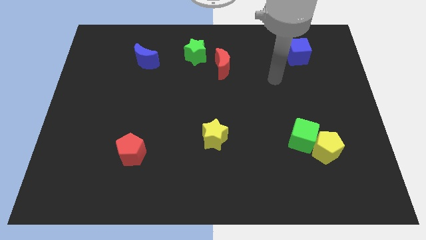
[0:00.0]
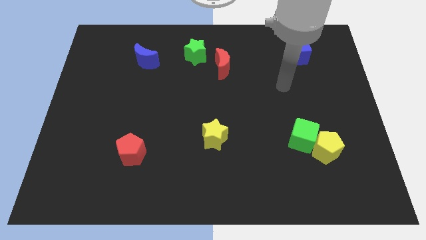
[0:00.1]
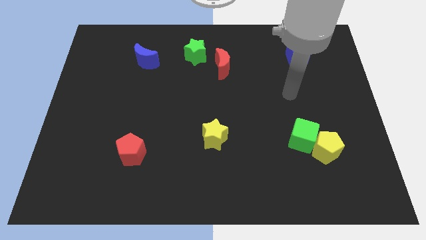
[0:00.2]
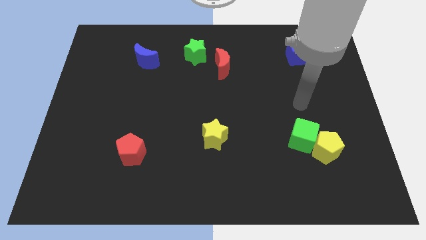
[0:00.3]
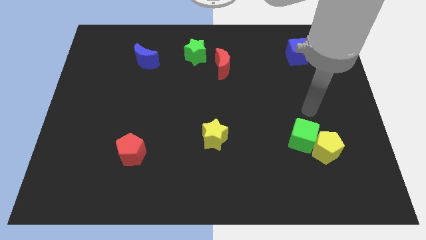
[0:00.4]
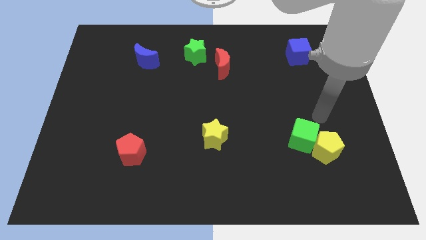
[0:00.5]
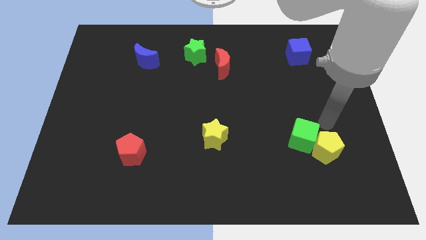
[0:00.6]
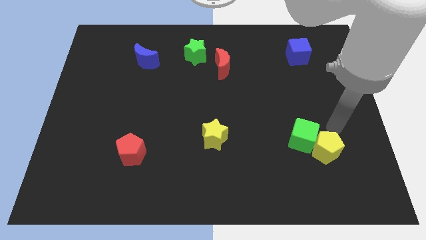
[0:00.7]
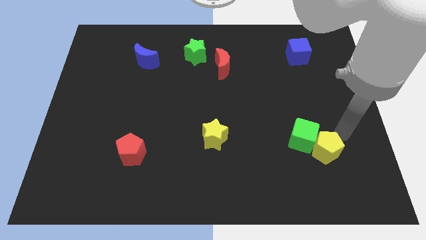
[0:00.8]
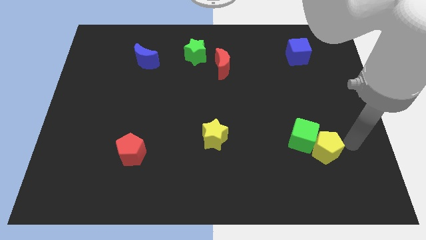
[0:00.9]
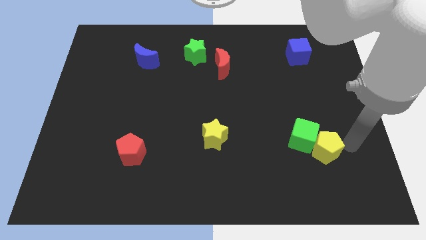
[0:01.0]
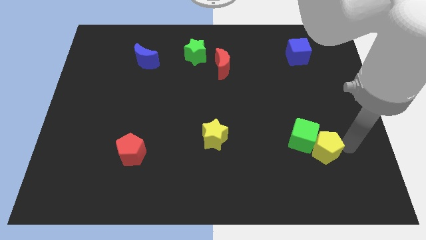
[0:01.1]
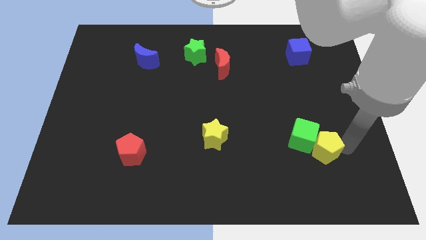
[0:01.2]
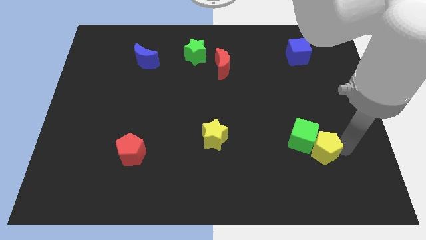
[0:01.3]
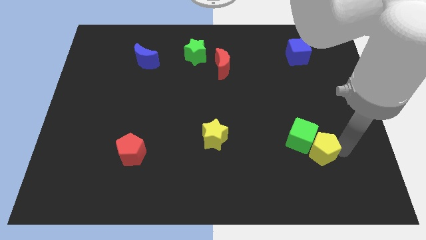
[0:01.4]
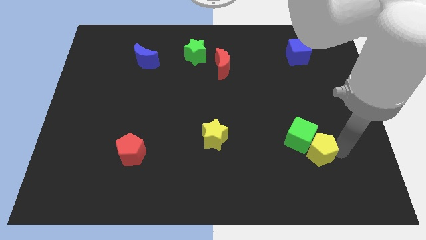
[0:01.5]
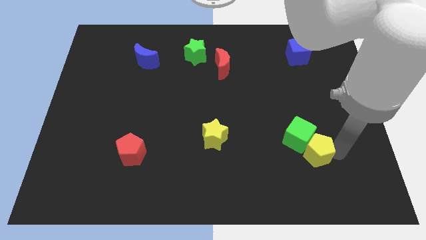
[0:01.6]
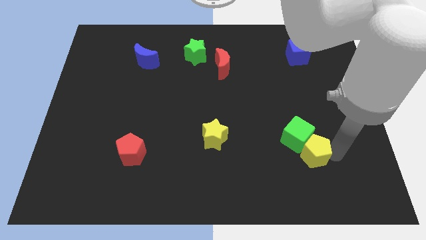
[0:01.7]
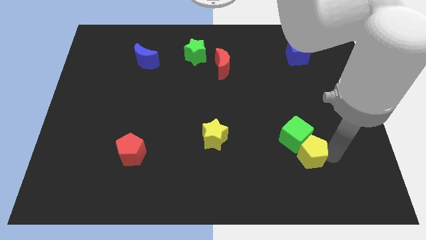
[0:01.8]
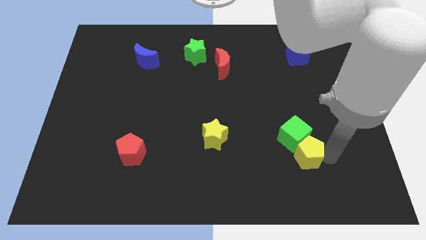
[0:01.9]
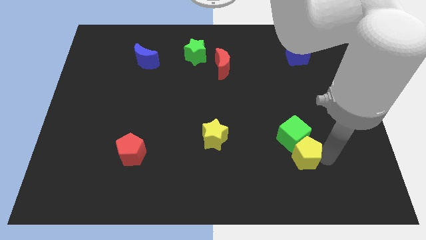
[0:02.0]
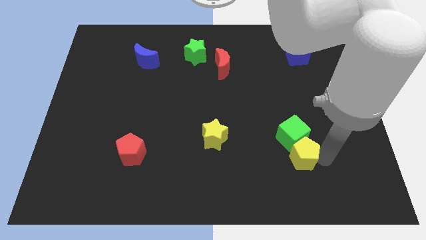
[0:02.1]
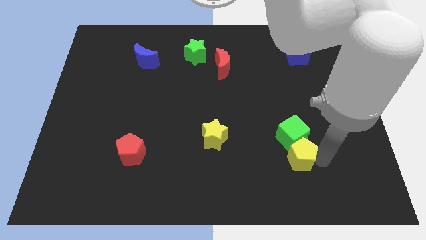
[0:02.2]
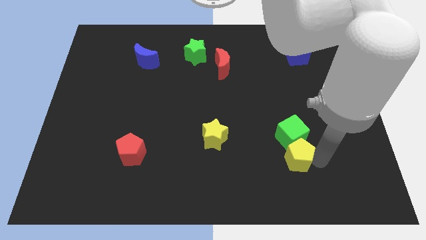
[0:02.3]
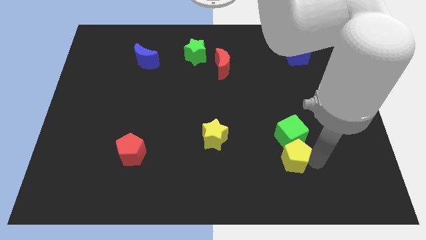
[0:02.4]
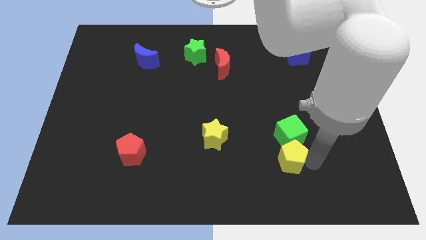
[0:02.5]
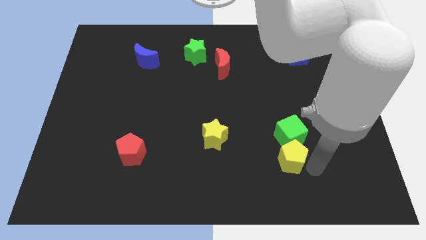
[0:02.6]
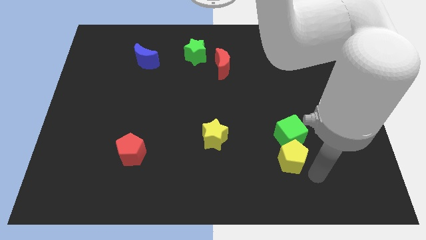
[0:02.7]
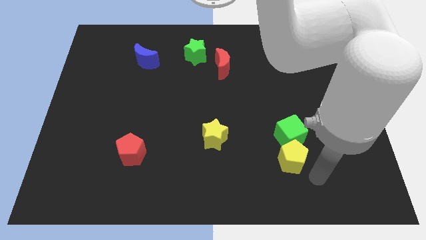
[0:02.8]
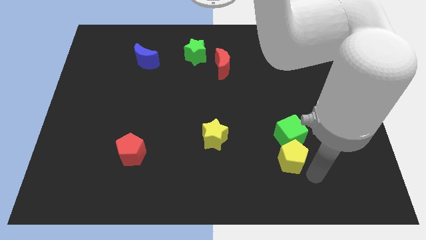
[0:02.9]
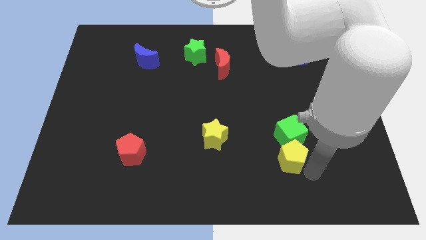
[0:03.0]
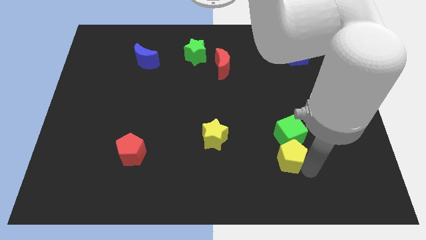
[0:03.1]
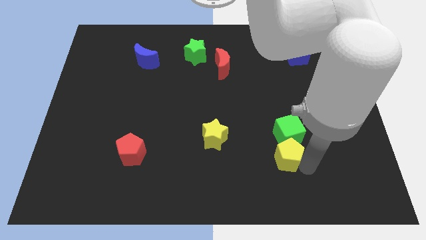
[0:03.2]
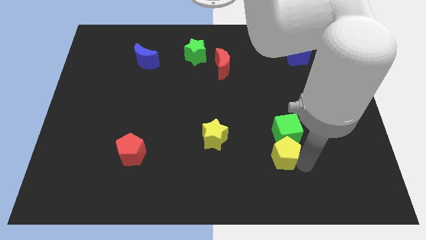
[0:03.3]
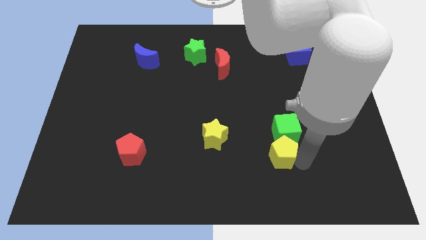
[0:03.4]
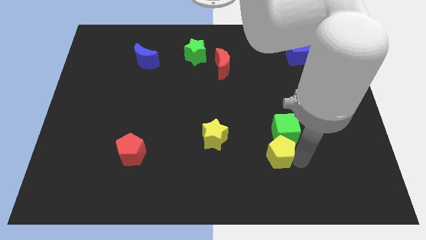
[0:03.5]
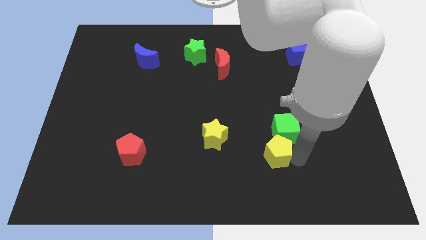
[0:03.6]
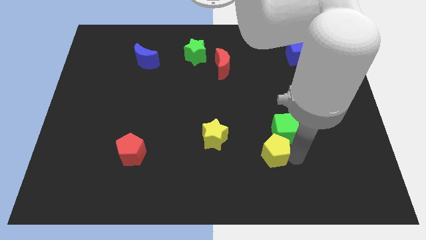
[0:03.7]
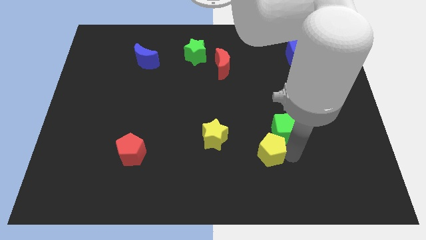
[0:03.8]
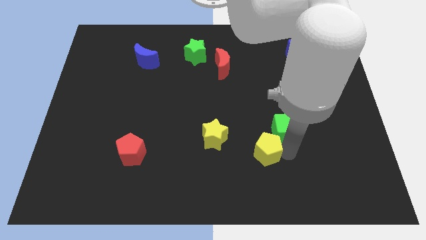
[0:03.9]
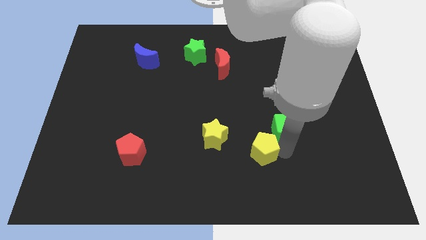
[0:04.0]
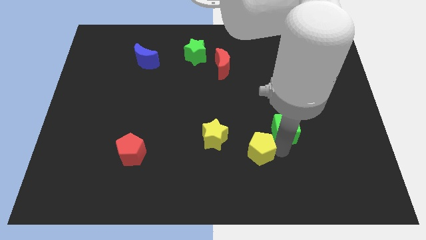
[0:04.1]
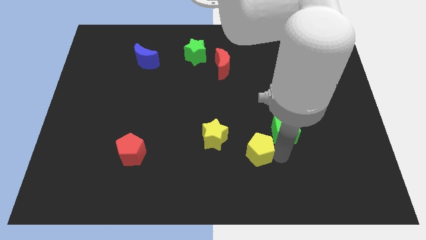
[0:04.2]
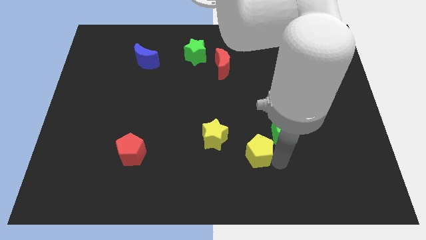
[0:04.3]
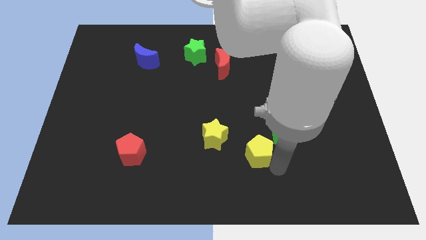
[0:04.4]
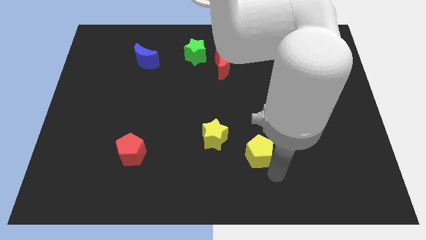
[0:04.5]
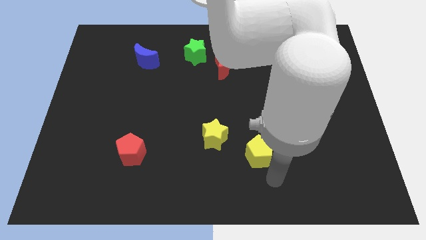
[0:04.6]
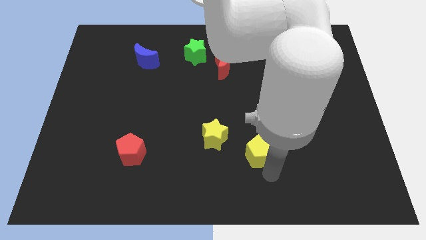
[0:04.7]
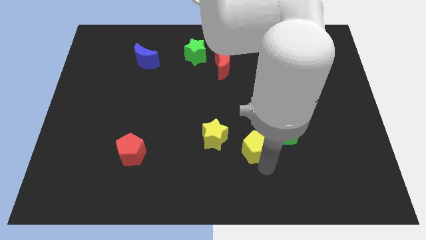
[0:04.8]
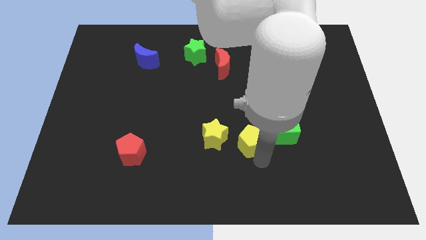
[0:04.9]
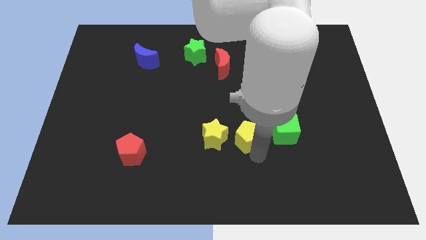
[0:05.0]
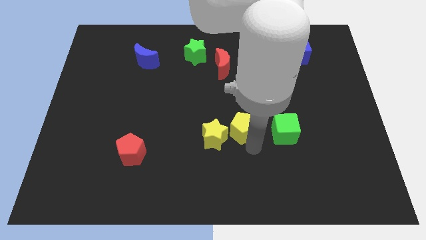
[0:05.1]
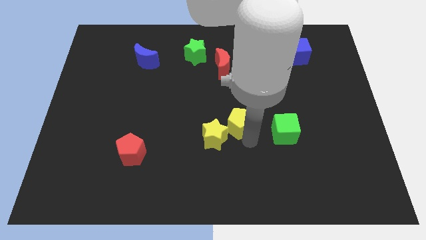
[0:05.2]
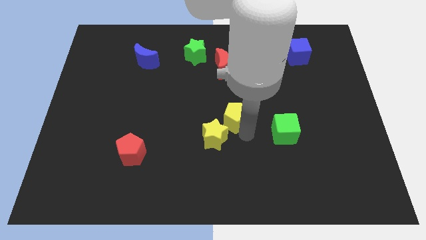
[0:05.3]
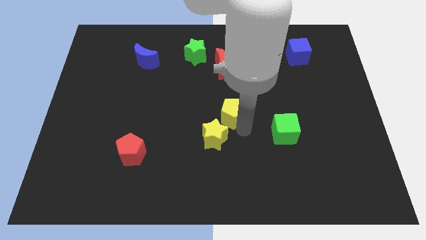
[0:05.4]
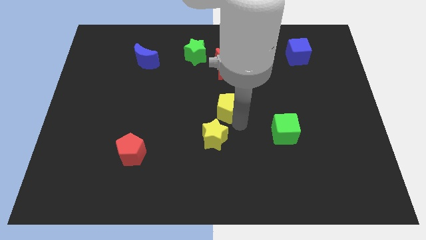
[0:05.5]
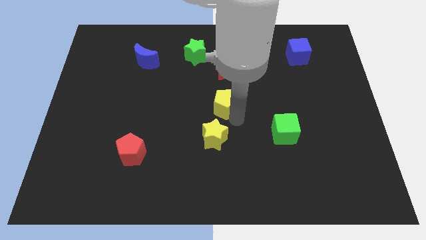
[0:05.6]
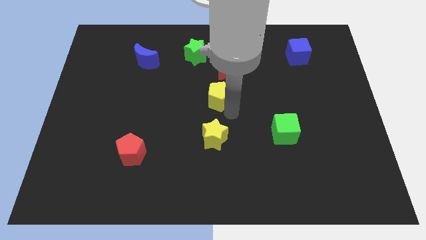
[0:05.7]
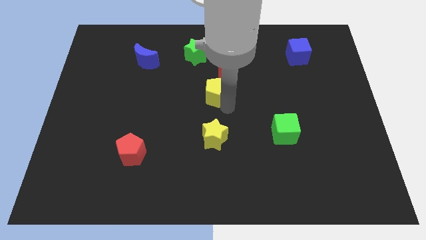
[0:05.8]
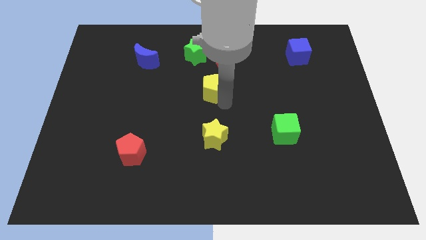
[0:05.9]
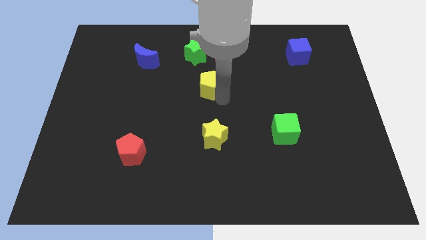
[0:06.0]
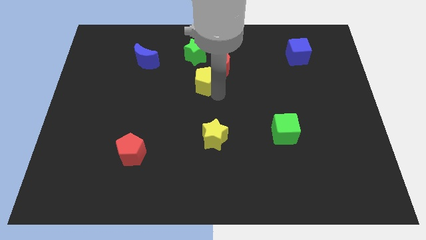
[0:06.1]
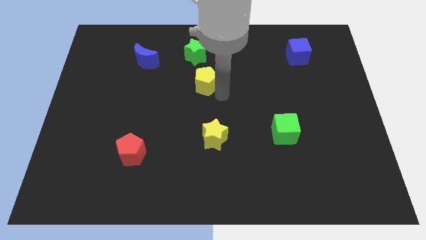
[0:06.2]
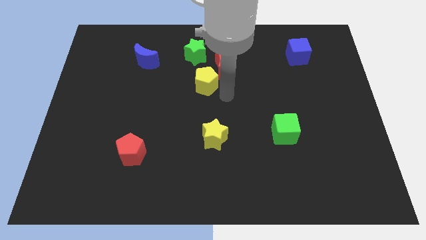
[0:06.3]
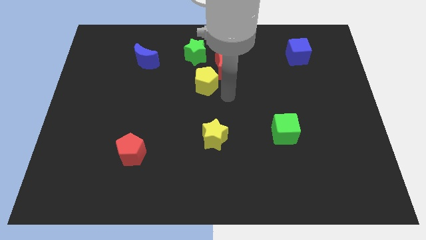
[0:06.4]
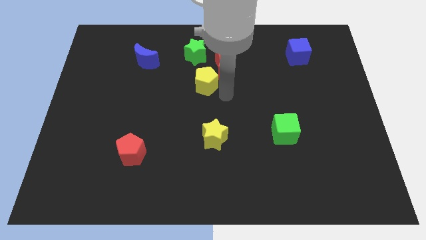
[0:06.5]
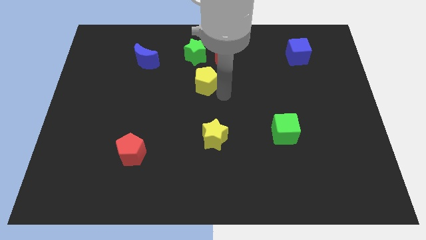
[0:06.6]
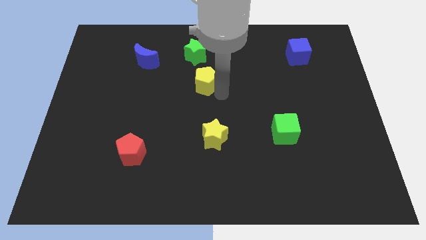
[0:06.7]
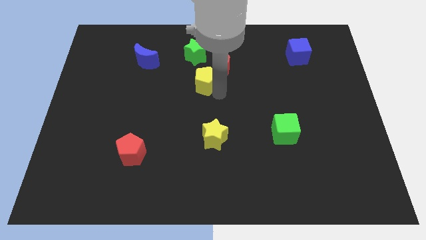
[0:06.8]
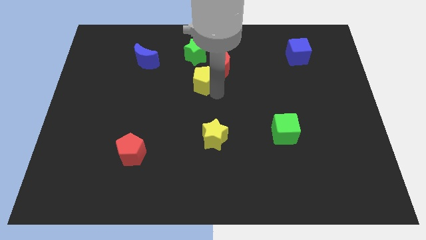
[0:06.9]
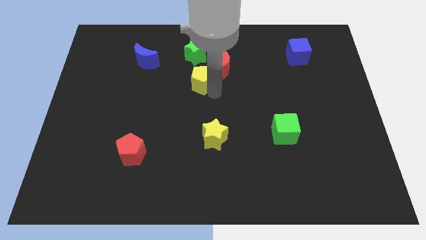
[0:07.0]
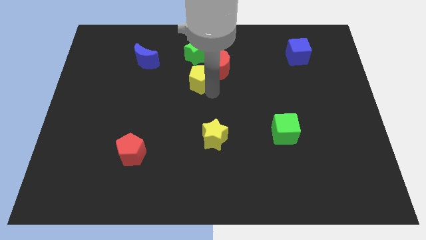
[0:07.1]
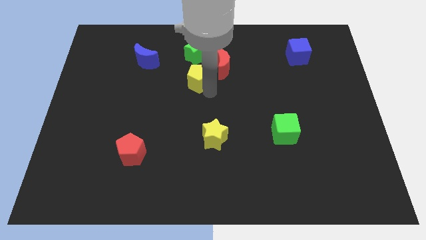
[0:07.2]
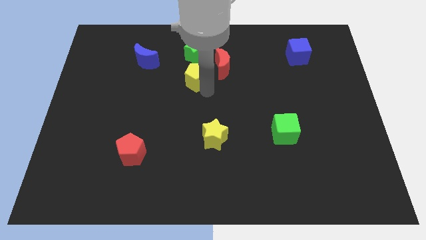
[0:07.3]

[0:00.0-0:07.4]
slide the yellow pentagon left of the red moon
